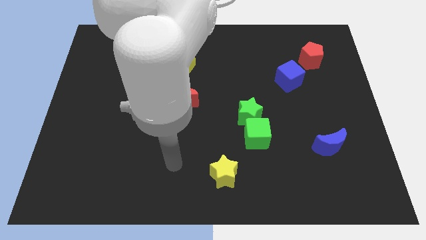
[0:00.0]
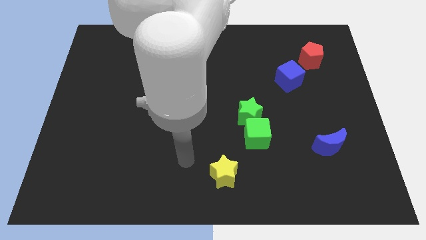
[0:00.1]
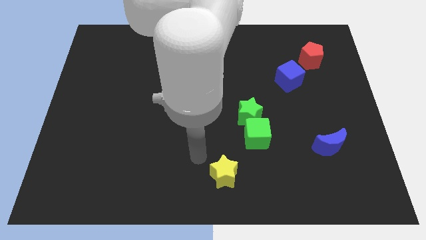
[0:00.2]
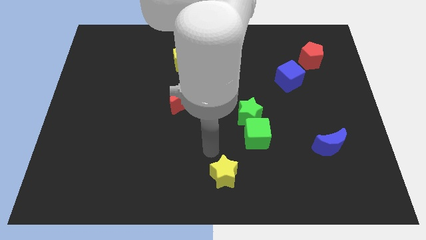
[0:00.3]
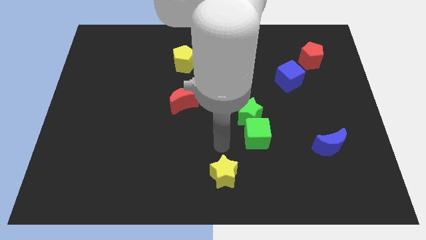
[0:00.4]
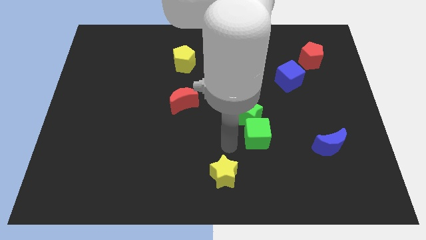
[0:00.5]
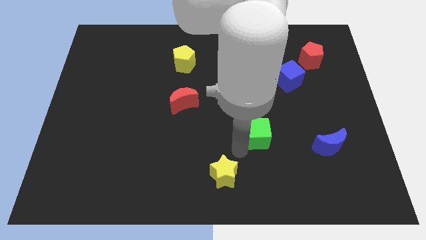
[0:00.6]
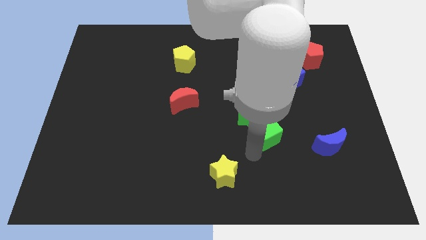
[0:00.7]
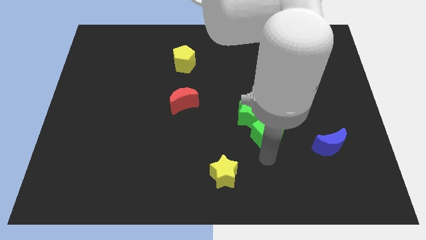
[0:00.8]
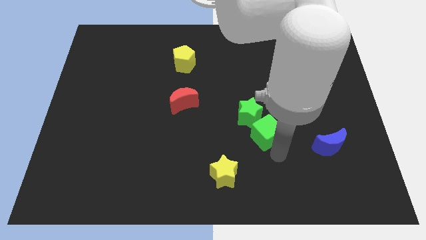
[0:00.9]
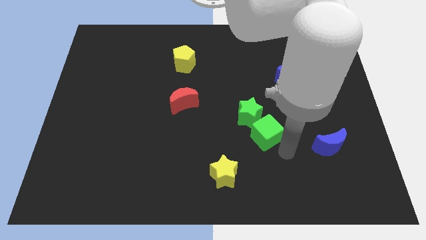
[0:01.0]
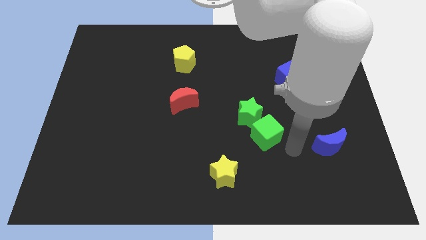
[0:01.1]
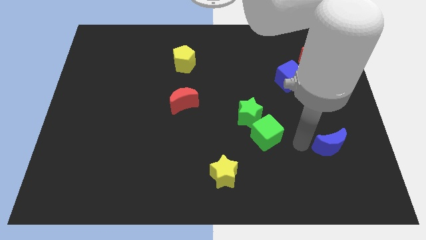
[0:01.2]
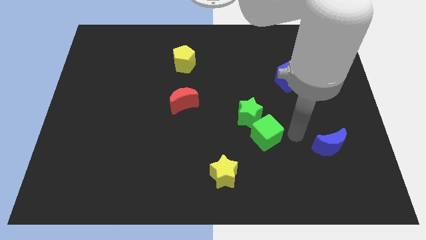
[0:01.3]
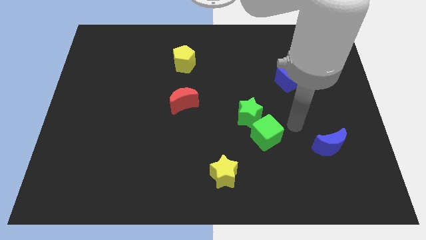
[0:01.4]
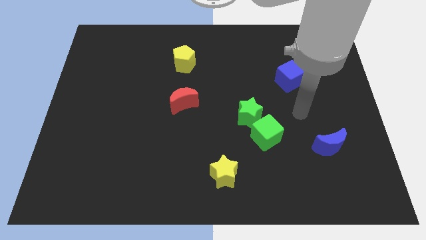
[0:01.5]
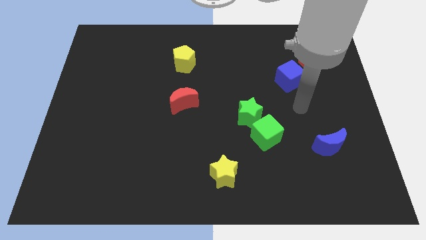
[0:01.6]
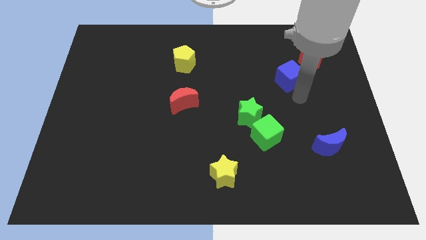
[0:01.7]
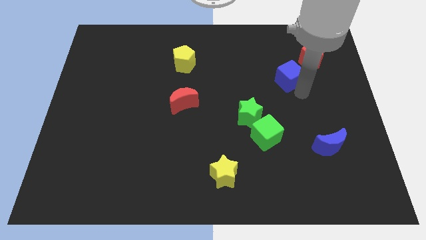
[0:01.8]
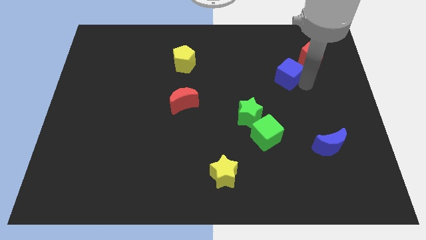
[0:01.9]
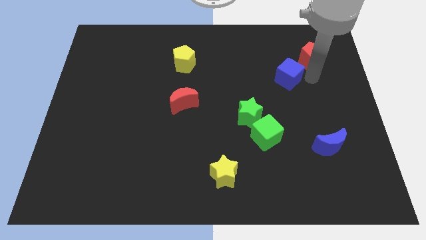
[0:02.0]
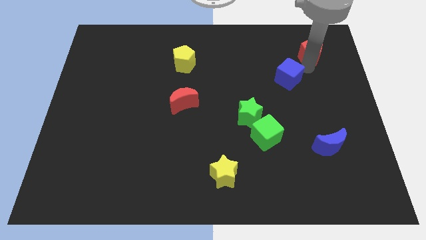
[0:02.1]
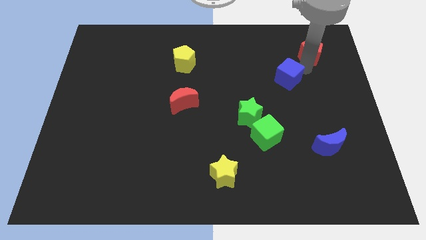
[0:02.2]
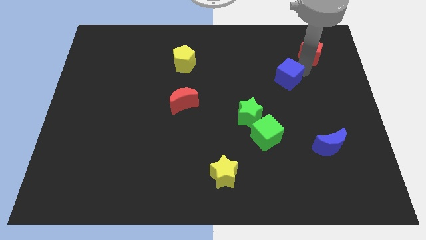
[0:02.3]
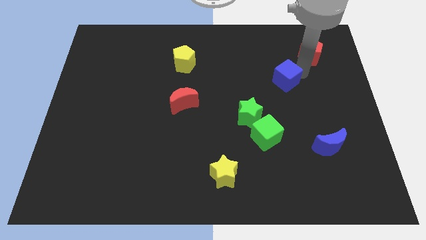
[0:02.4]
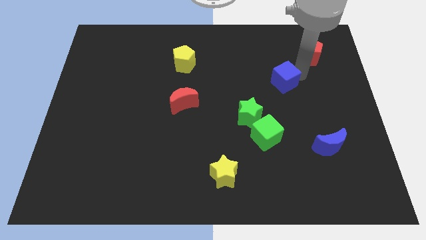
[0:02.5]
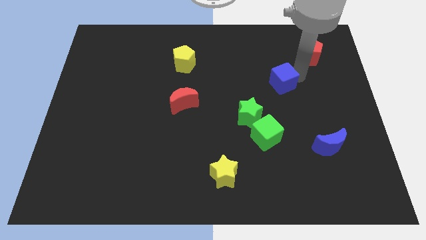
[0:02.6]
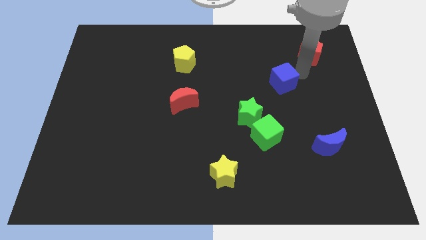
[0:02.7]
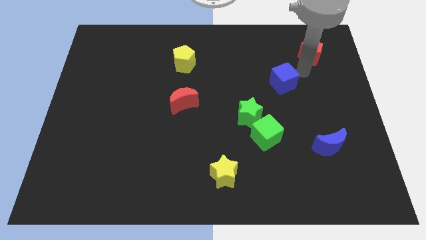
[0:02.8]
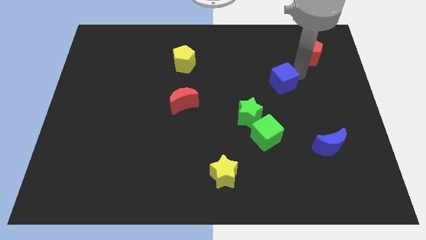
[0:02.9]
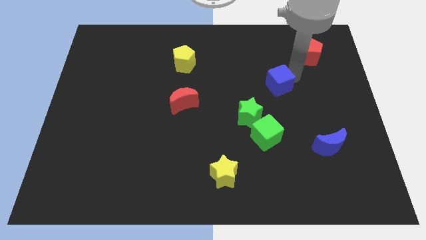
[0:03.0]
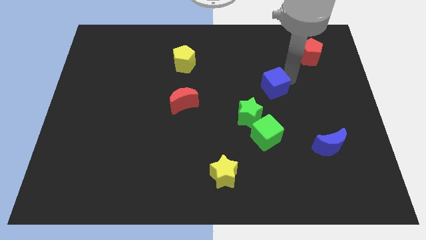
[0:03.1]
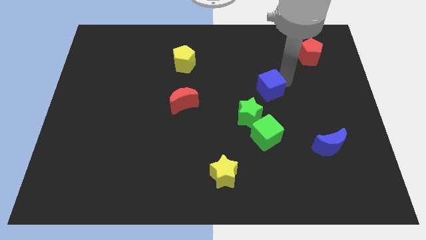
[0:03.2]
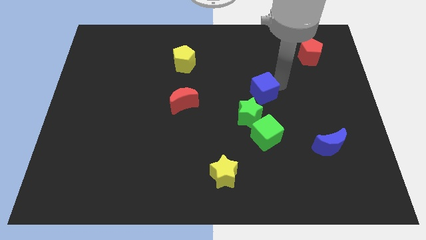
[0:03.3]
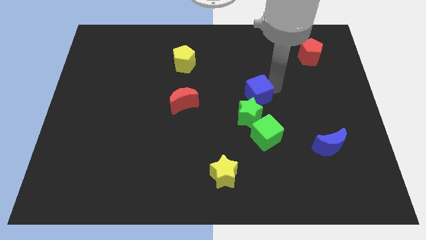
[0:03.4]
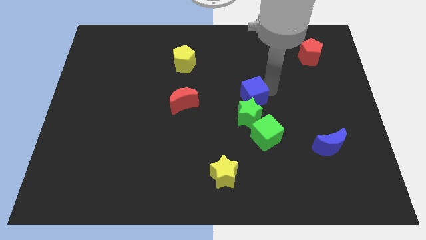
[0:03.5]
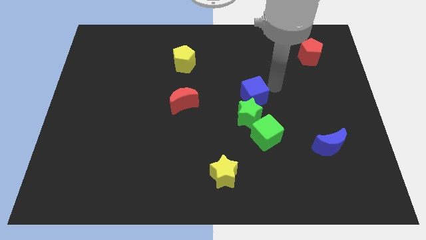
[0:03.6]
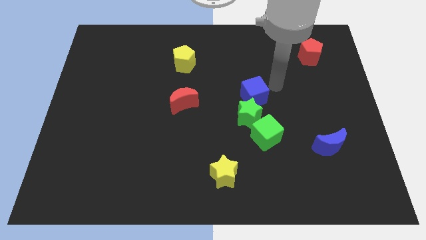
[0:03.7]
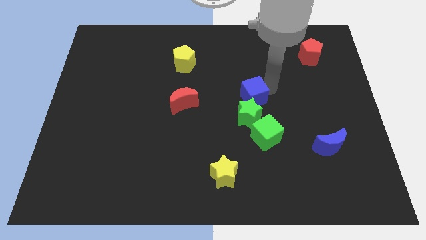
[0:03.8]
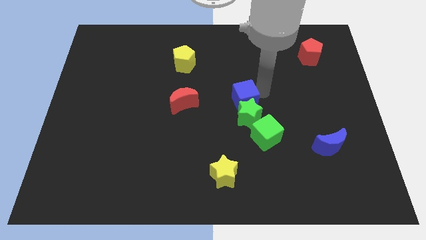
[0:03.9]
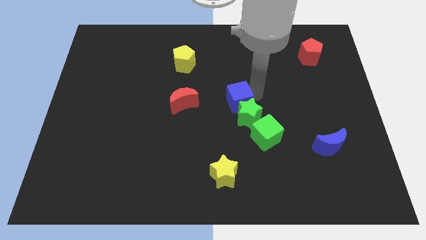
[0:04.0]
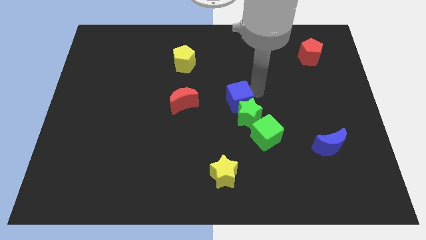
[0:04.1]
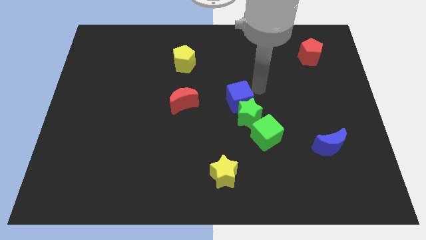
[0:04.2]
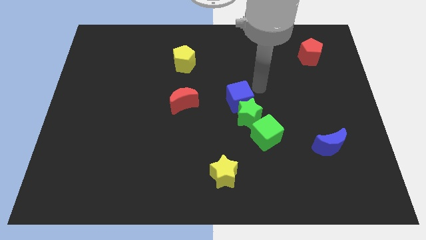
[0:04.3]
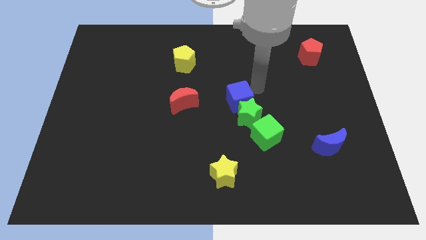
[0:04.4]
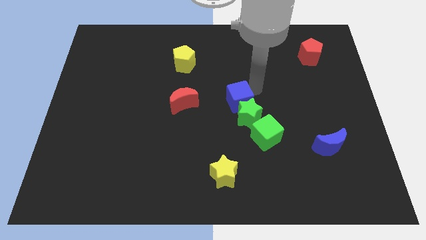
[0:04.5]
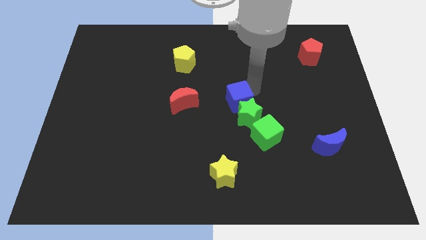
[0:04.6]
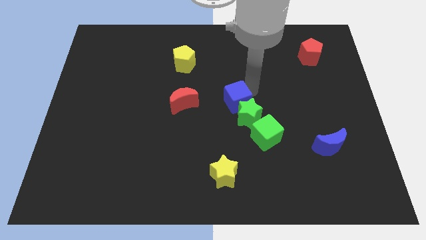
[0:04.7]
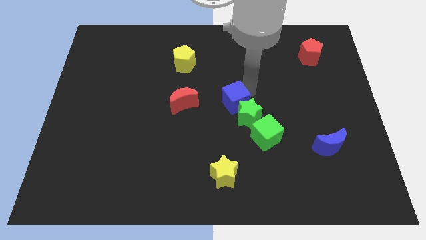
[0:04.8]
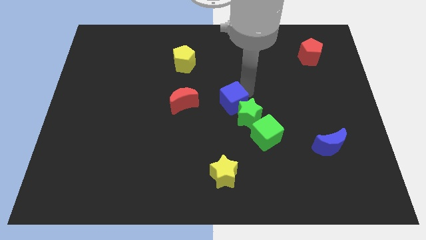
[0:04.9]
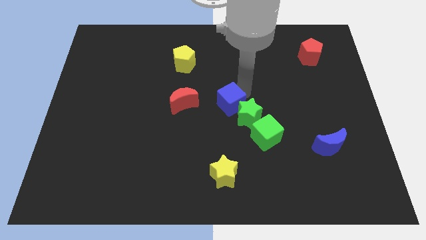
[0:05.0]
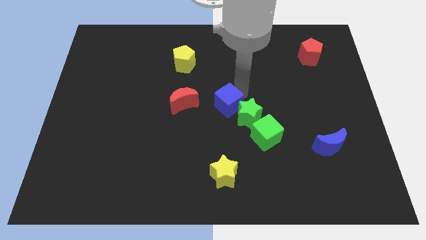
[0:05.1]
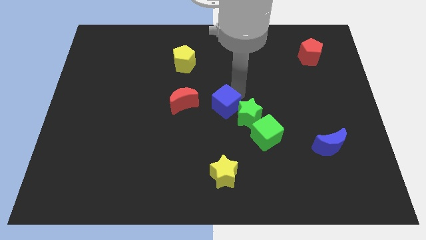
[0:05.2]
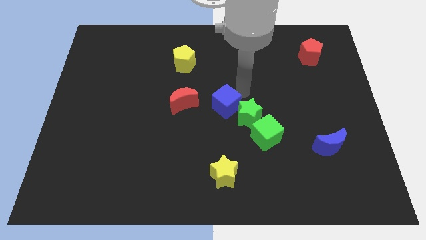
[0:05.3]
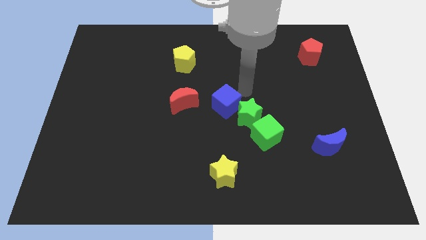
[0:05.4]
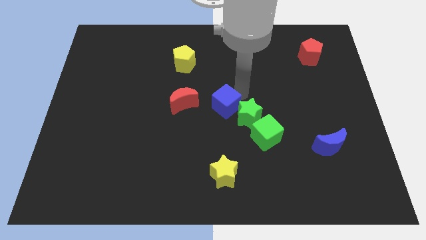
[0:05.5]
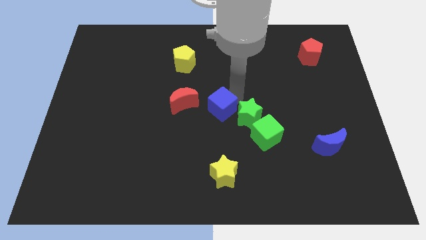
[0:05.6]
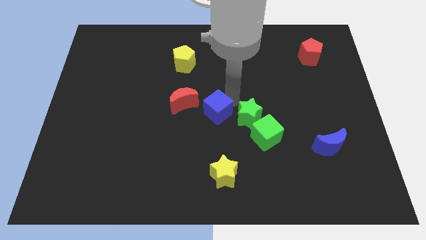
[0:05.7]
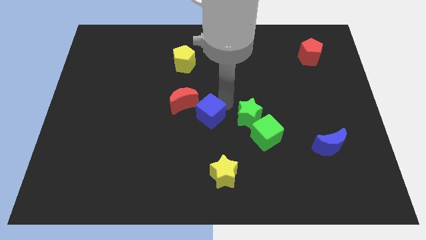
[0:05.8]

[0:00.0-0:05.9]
slide the blue cube downwards and left

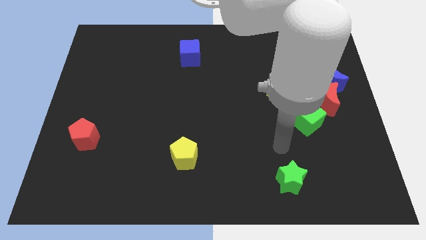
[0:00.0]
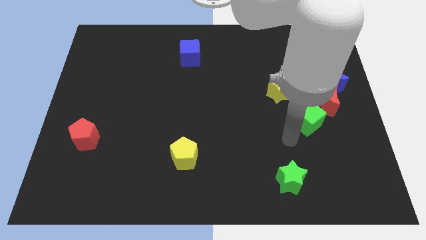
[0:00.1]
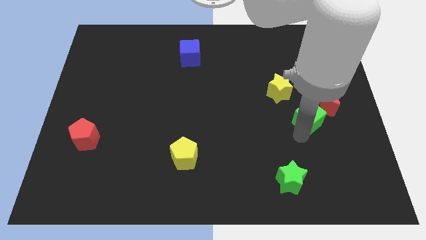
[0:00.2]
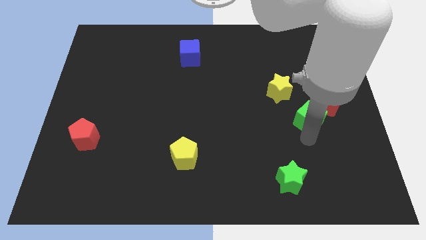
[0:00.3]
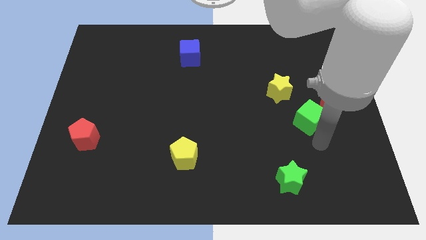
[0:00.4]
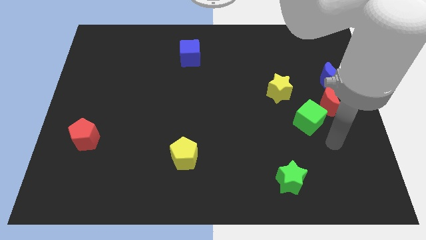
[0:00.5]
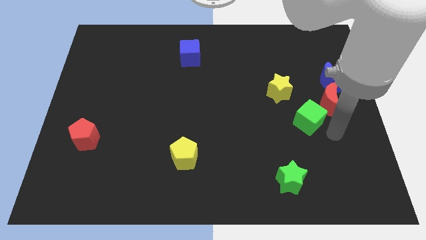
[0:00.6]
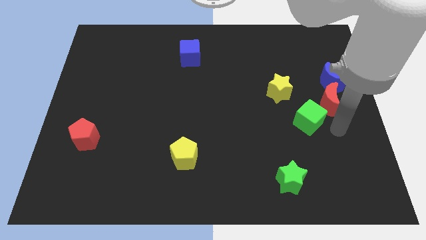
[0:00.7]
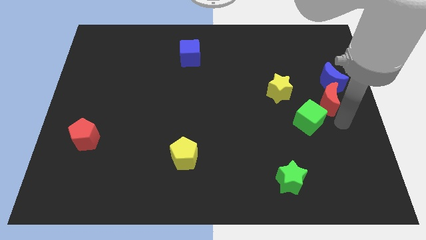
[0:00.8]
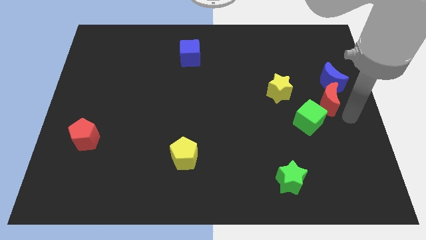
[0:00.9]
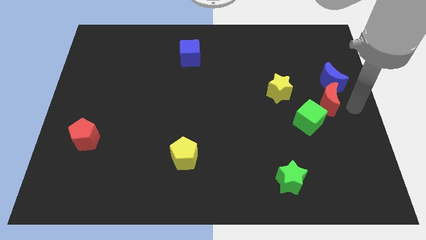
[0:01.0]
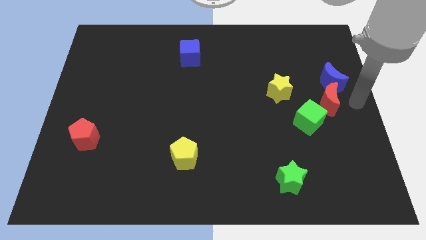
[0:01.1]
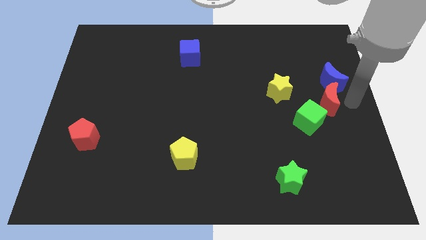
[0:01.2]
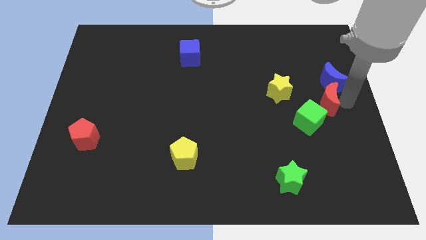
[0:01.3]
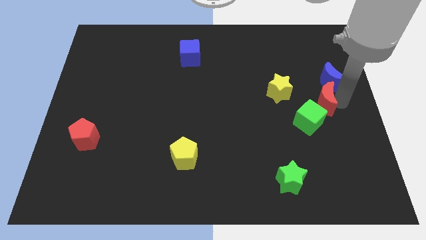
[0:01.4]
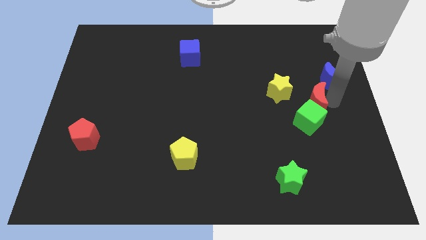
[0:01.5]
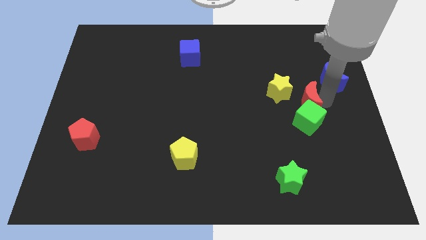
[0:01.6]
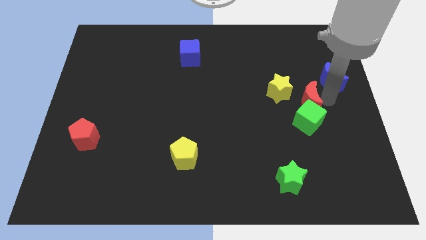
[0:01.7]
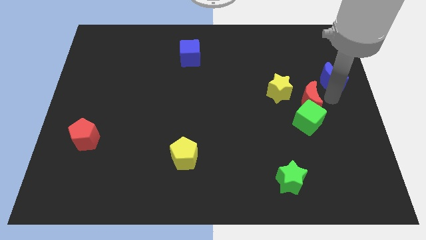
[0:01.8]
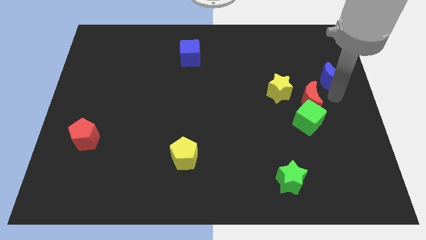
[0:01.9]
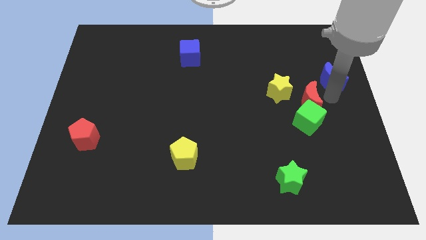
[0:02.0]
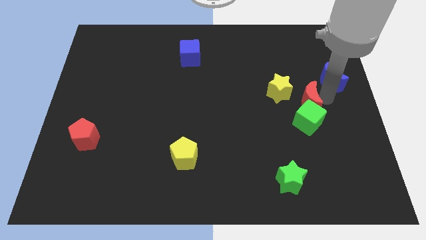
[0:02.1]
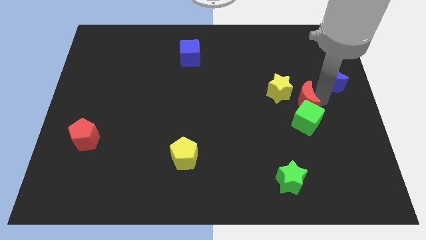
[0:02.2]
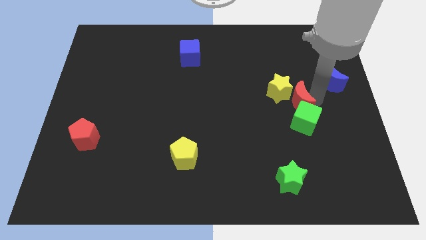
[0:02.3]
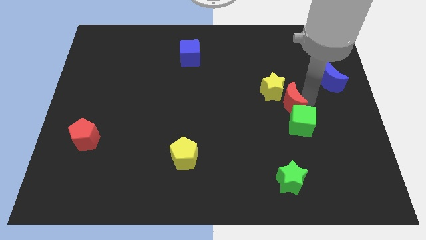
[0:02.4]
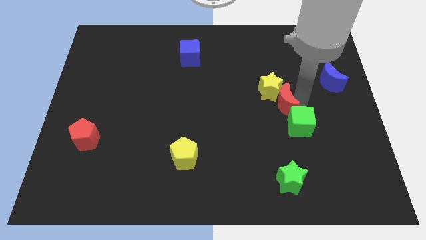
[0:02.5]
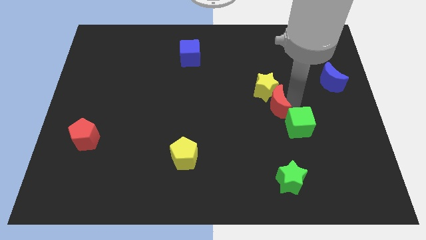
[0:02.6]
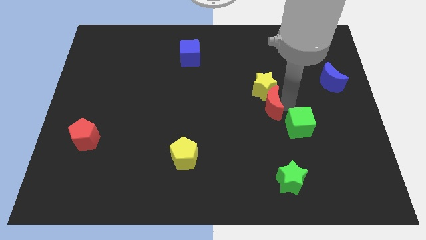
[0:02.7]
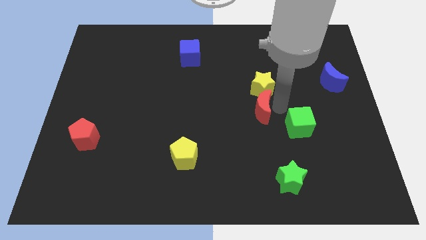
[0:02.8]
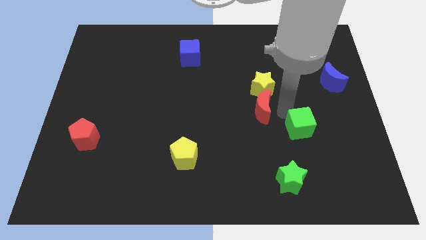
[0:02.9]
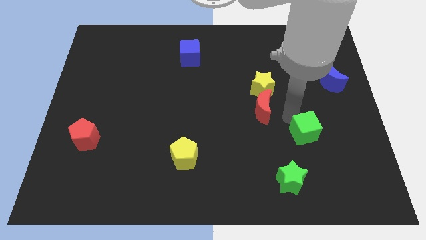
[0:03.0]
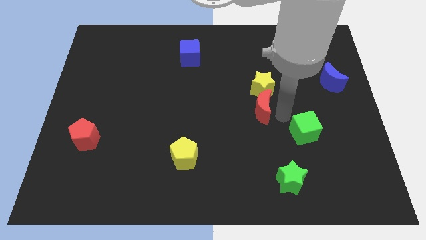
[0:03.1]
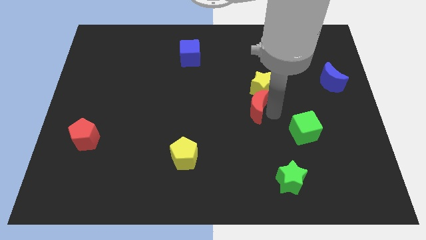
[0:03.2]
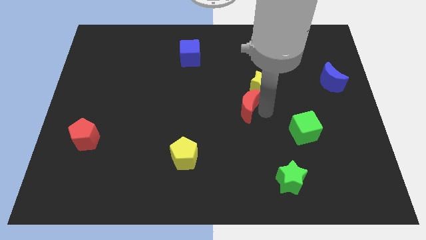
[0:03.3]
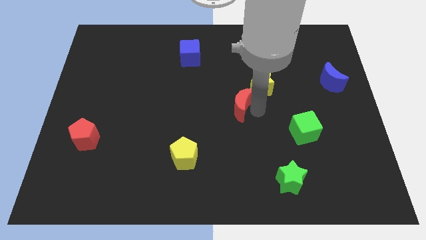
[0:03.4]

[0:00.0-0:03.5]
move the red moon to the left
